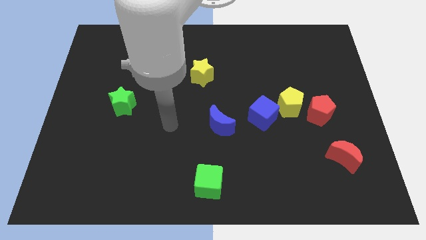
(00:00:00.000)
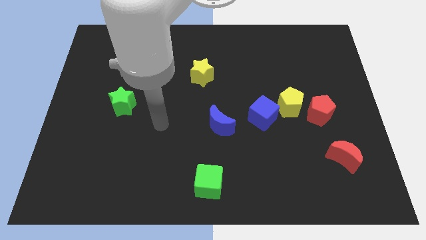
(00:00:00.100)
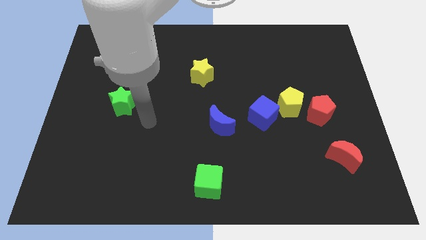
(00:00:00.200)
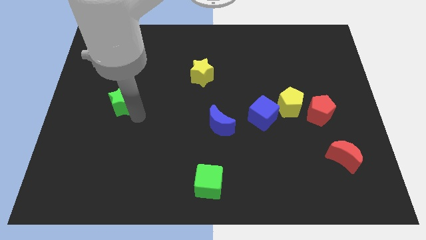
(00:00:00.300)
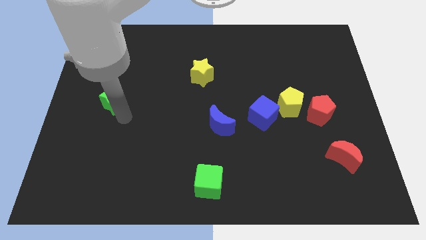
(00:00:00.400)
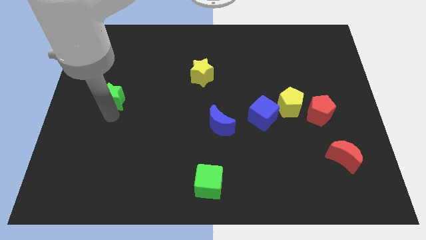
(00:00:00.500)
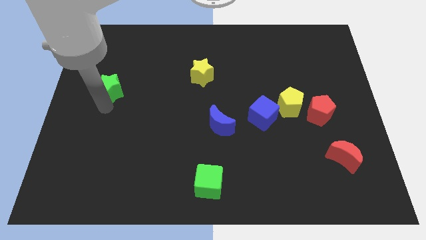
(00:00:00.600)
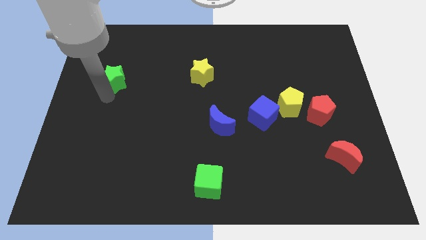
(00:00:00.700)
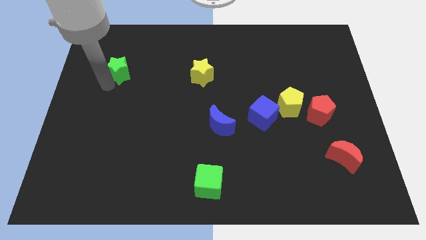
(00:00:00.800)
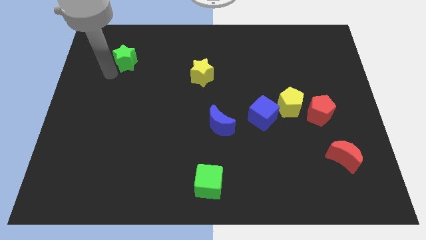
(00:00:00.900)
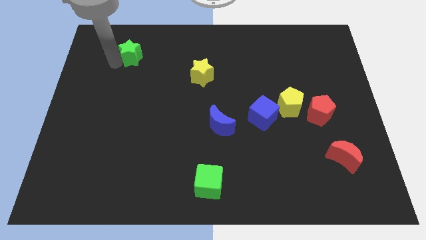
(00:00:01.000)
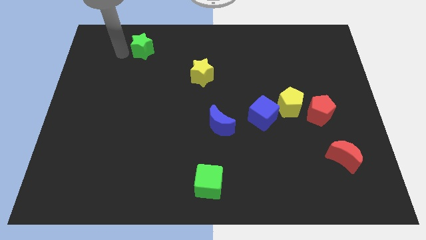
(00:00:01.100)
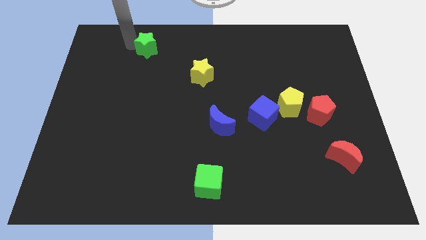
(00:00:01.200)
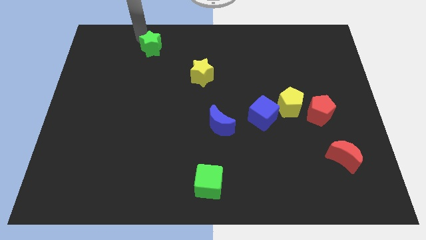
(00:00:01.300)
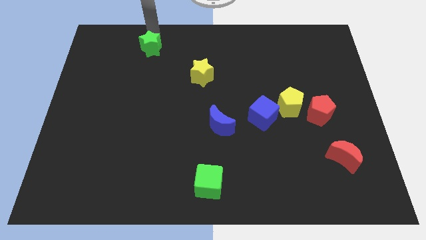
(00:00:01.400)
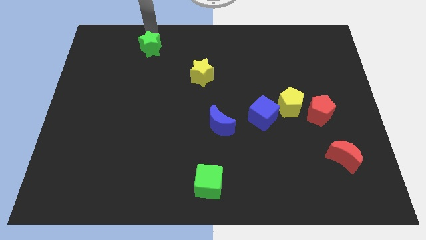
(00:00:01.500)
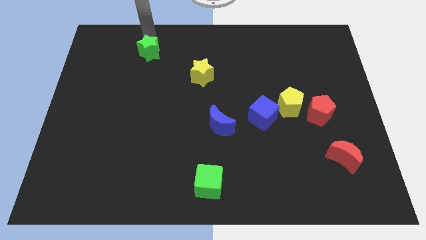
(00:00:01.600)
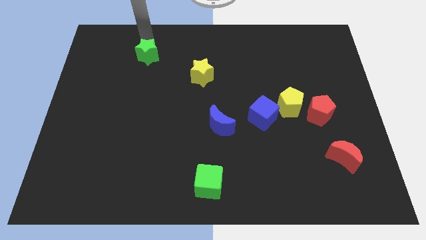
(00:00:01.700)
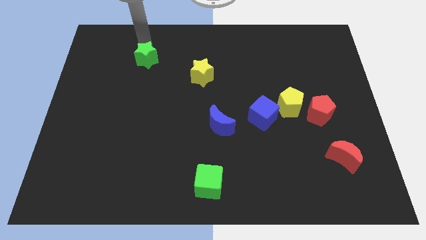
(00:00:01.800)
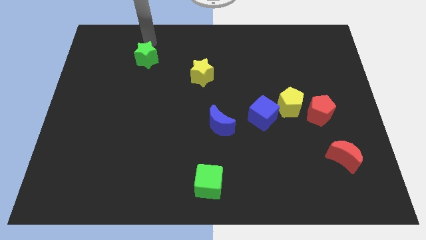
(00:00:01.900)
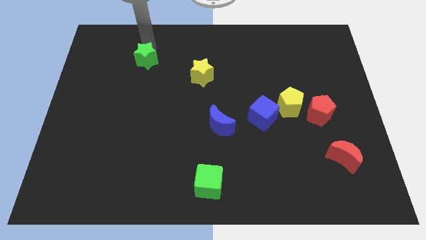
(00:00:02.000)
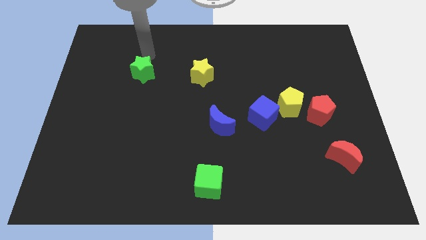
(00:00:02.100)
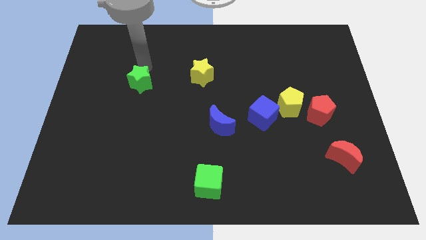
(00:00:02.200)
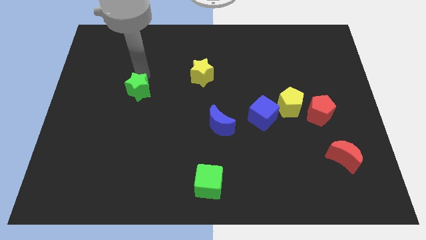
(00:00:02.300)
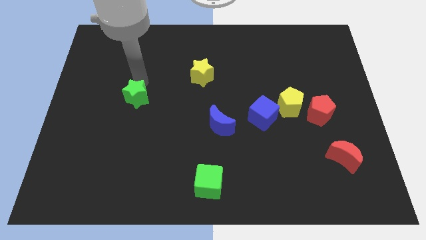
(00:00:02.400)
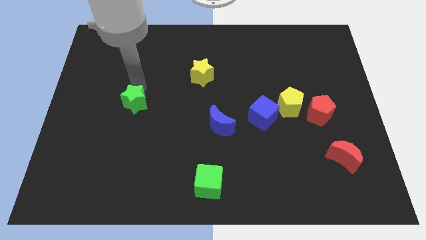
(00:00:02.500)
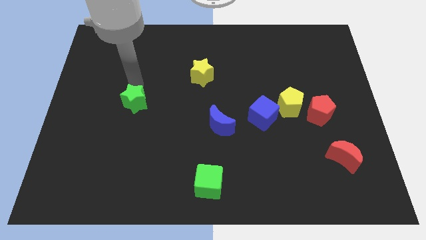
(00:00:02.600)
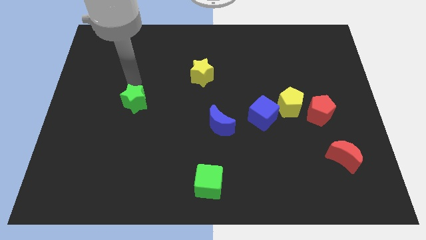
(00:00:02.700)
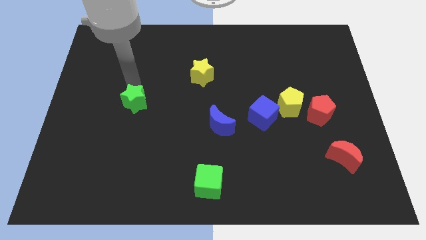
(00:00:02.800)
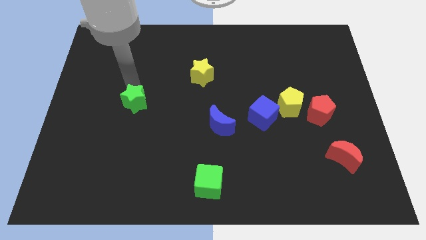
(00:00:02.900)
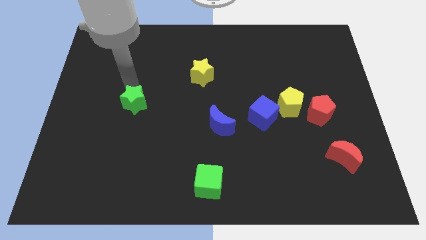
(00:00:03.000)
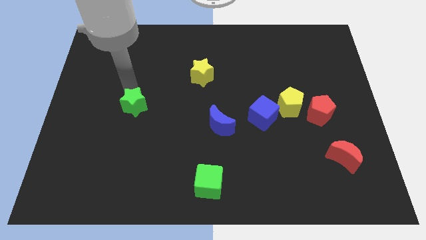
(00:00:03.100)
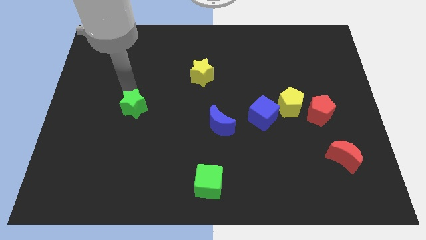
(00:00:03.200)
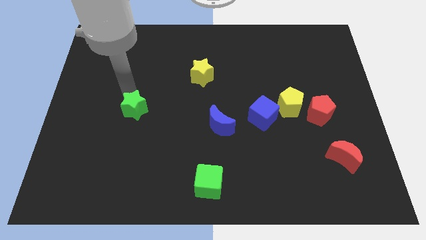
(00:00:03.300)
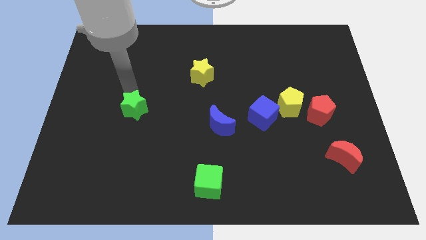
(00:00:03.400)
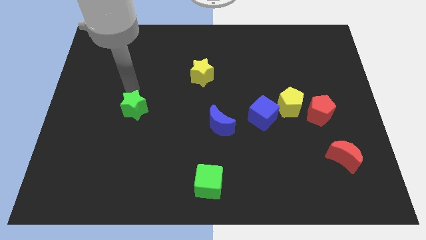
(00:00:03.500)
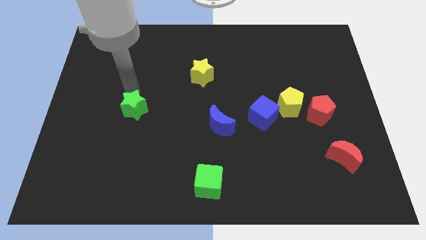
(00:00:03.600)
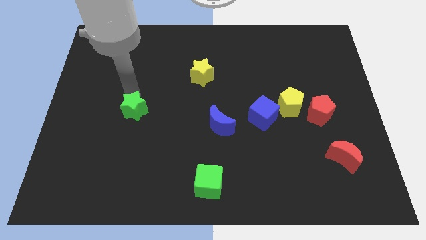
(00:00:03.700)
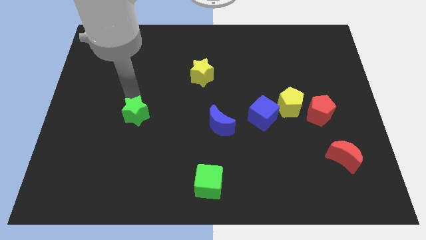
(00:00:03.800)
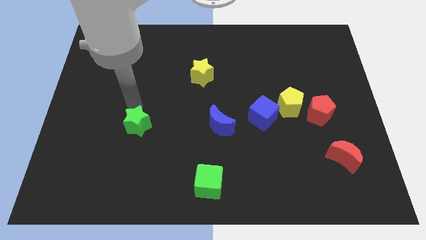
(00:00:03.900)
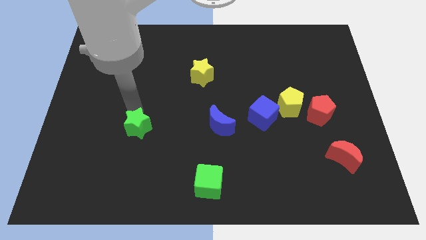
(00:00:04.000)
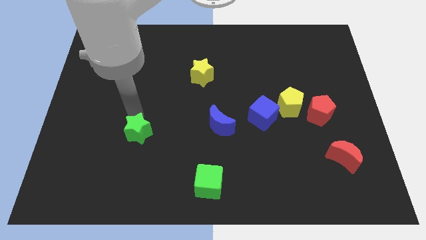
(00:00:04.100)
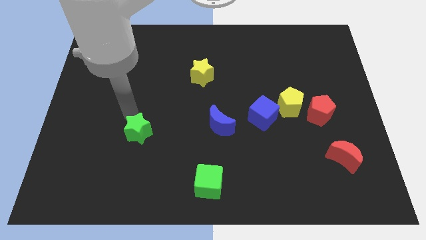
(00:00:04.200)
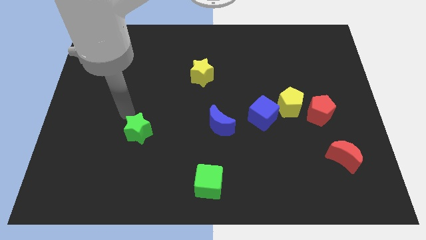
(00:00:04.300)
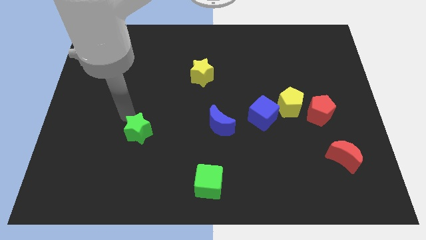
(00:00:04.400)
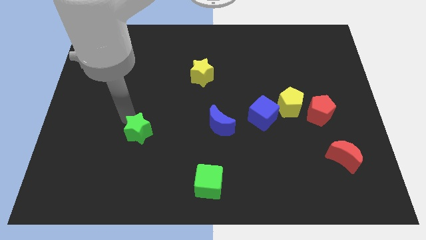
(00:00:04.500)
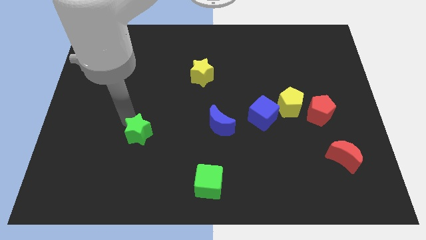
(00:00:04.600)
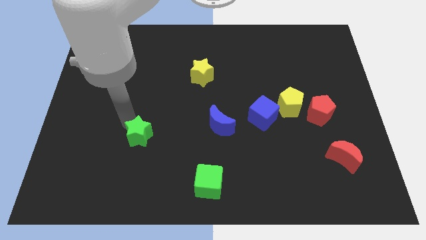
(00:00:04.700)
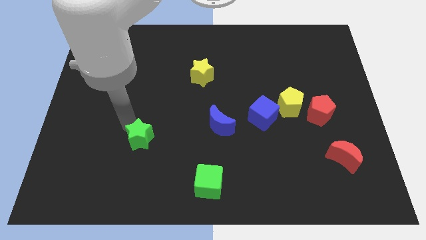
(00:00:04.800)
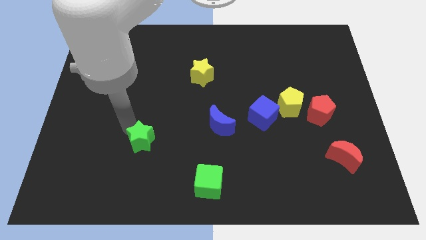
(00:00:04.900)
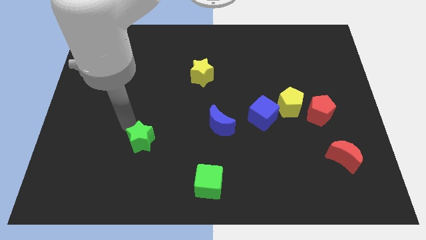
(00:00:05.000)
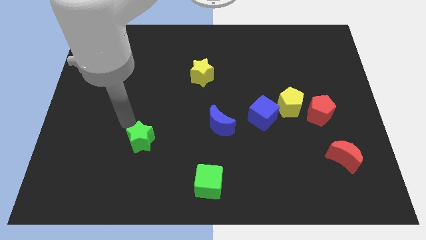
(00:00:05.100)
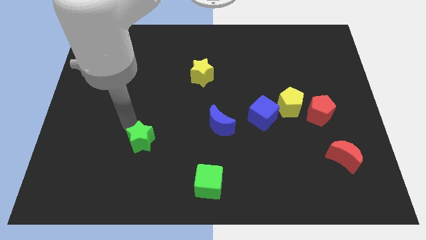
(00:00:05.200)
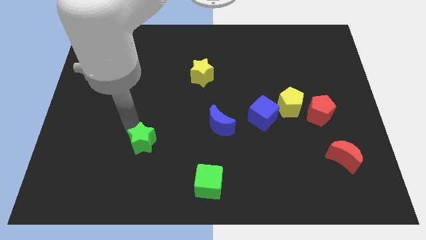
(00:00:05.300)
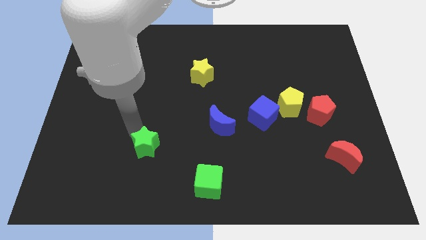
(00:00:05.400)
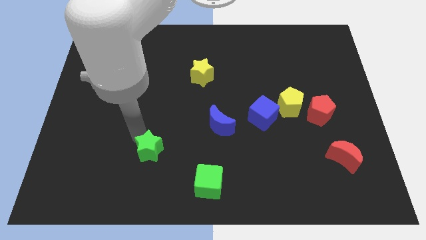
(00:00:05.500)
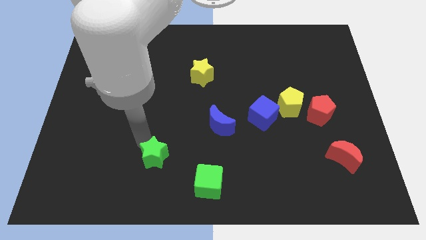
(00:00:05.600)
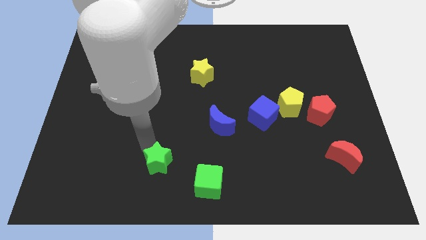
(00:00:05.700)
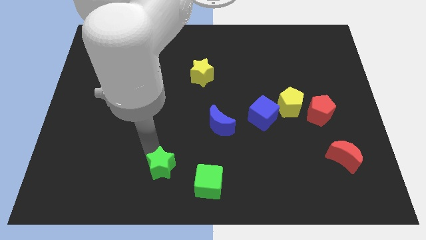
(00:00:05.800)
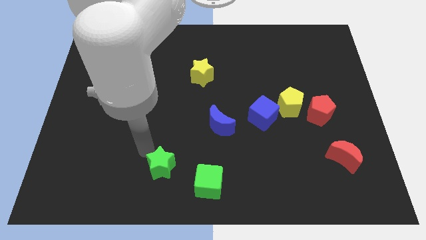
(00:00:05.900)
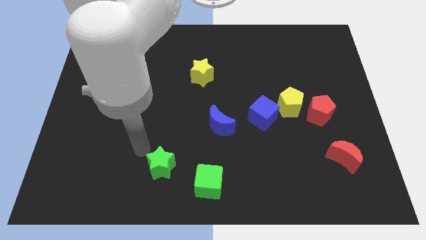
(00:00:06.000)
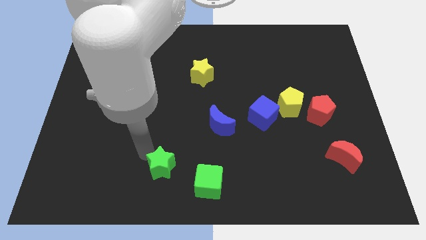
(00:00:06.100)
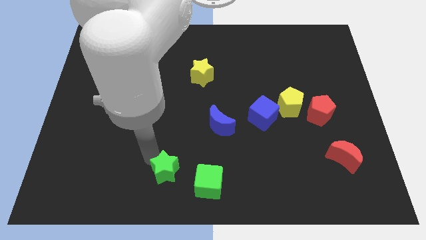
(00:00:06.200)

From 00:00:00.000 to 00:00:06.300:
push the green star to the bottom
